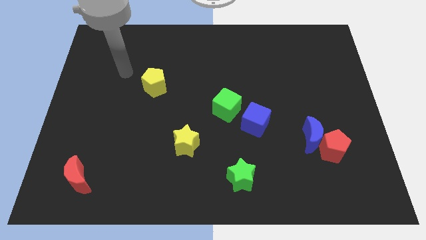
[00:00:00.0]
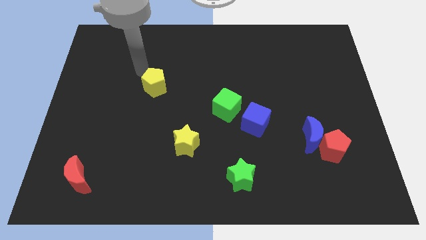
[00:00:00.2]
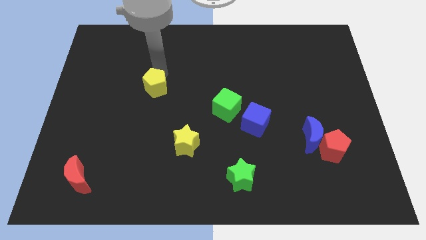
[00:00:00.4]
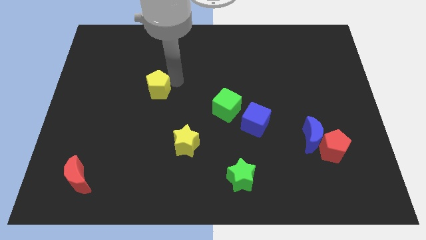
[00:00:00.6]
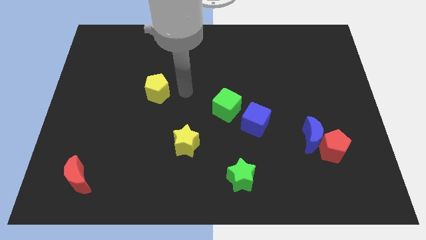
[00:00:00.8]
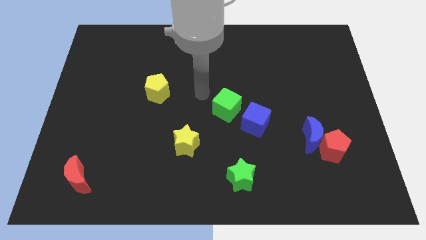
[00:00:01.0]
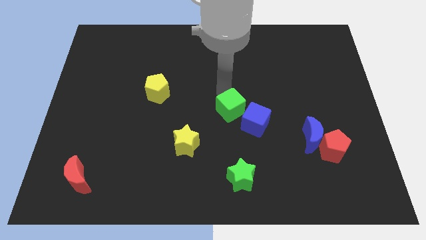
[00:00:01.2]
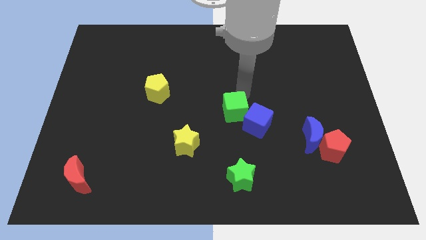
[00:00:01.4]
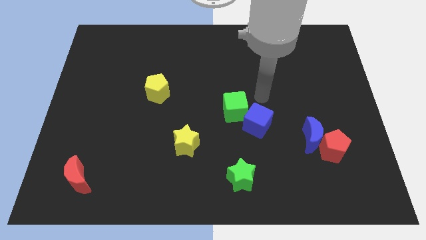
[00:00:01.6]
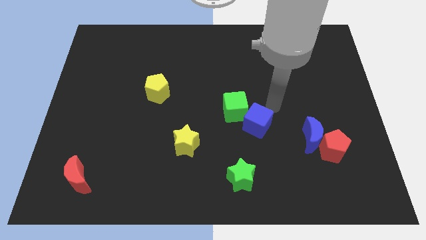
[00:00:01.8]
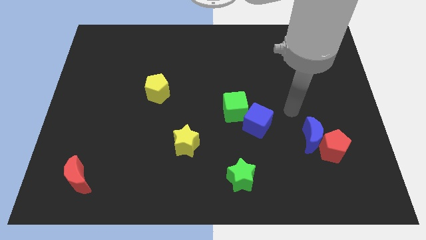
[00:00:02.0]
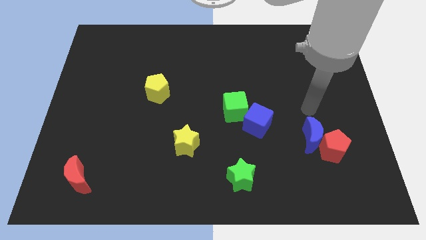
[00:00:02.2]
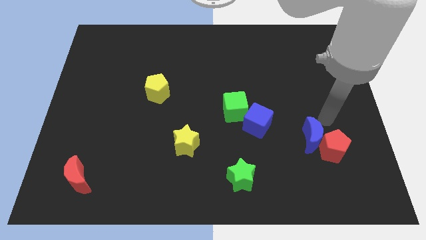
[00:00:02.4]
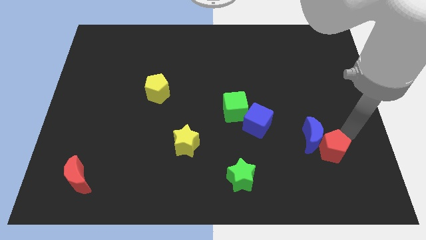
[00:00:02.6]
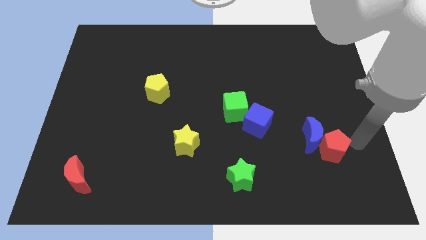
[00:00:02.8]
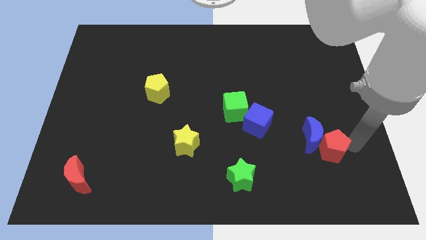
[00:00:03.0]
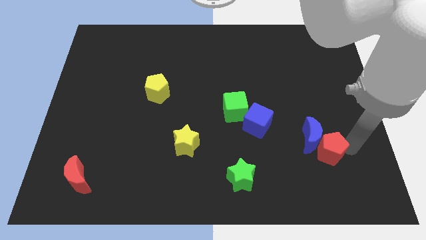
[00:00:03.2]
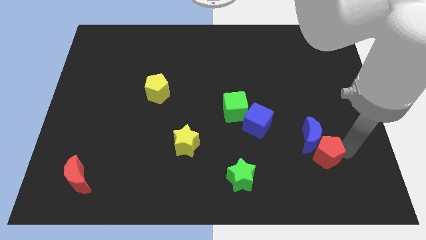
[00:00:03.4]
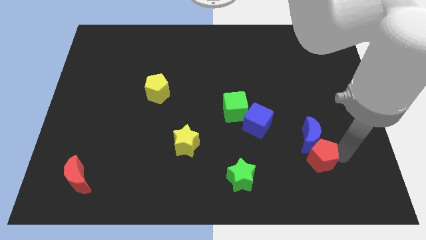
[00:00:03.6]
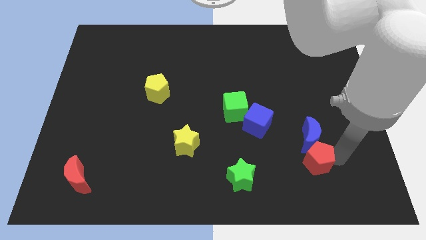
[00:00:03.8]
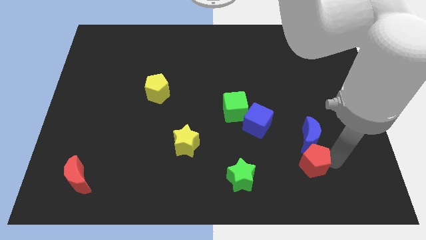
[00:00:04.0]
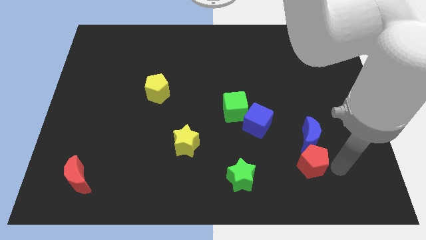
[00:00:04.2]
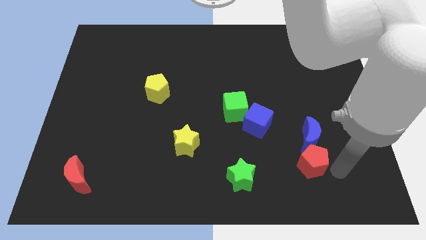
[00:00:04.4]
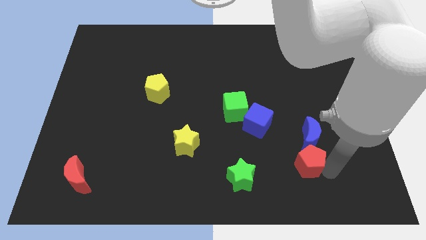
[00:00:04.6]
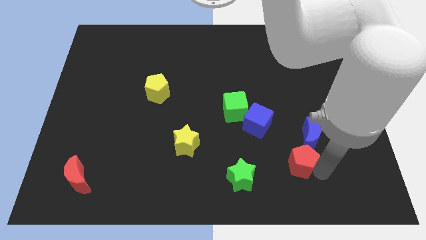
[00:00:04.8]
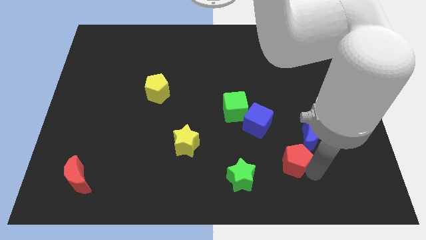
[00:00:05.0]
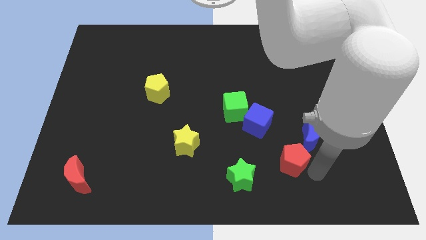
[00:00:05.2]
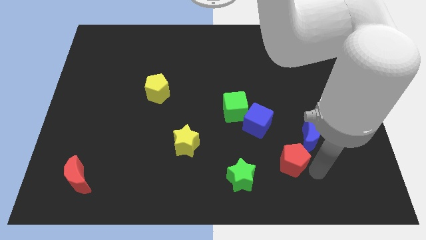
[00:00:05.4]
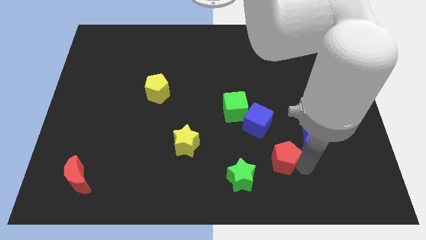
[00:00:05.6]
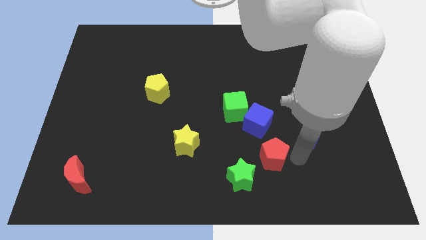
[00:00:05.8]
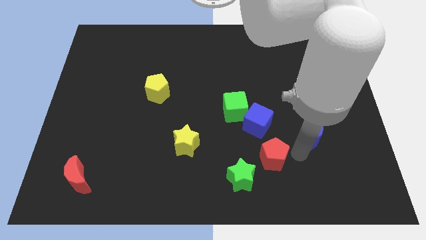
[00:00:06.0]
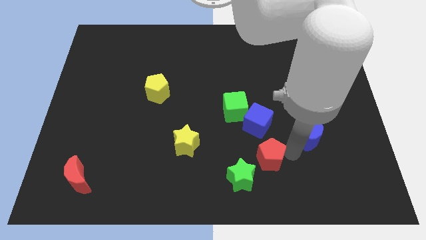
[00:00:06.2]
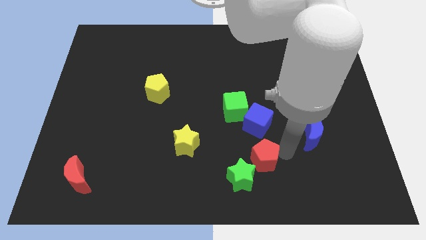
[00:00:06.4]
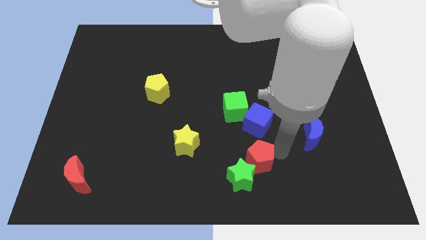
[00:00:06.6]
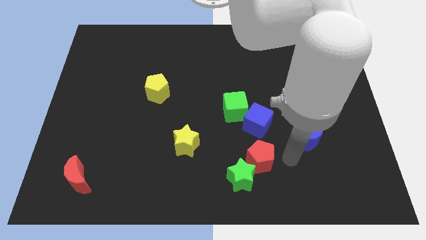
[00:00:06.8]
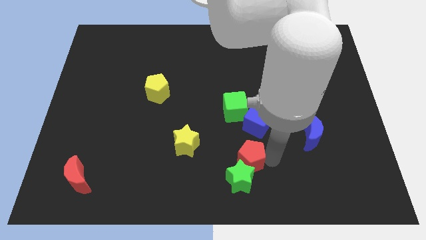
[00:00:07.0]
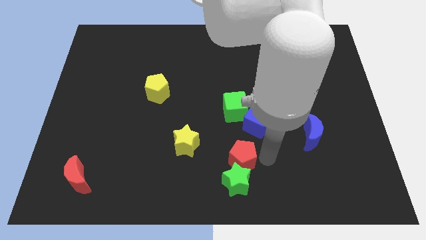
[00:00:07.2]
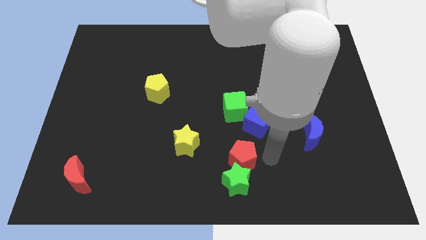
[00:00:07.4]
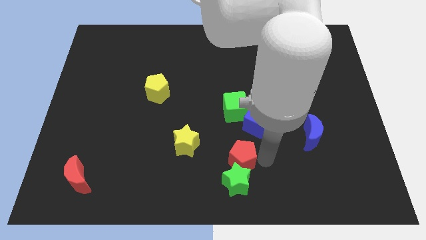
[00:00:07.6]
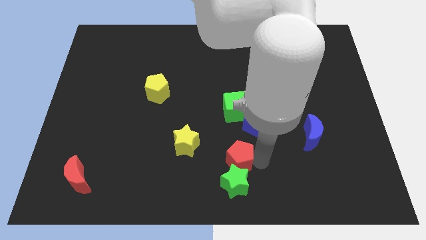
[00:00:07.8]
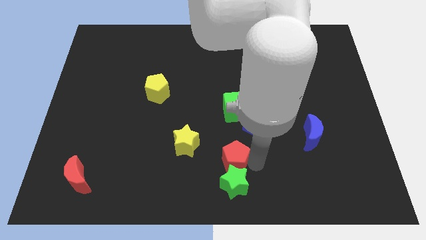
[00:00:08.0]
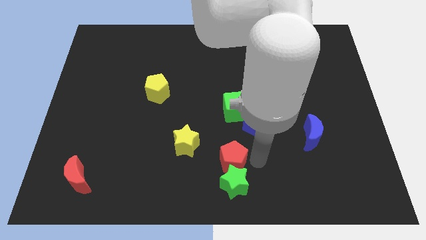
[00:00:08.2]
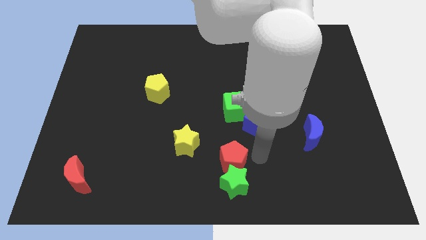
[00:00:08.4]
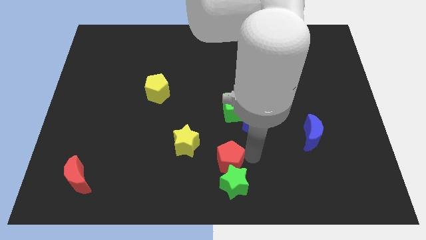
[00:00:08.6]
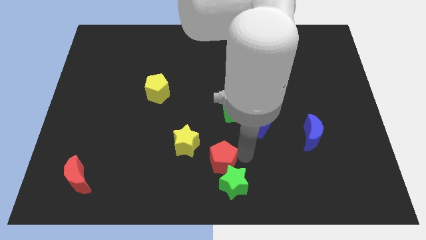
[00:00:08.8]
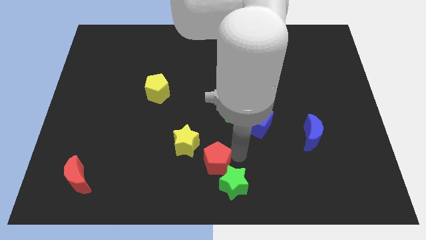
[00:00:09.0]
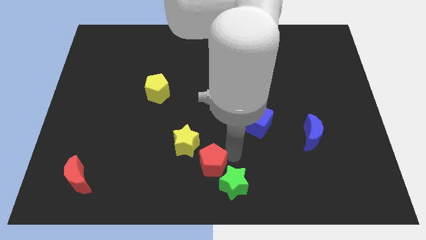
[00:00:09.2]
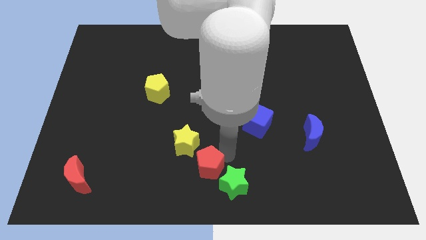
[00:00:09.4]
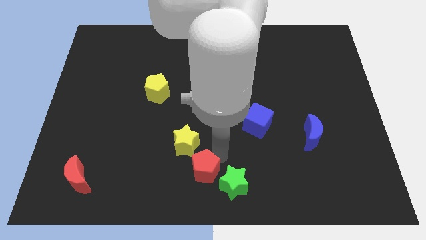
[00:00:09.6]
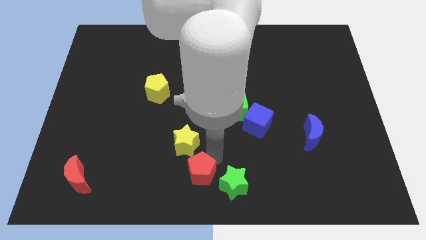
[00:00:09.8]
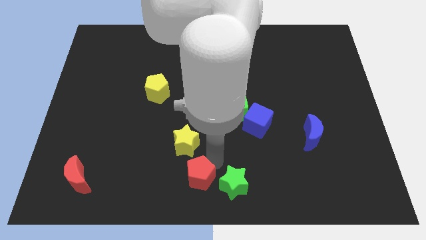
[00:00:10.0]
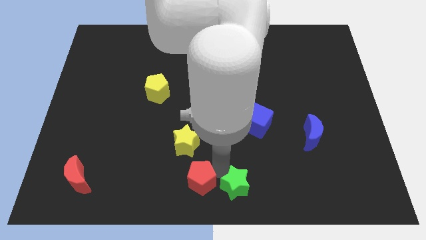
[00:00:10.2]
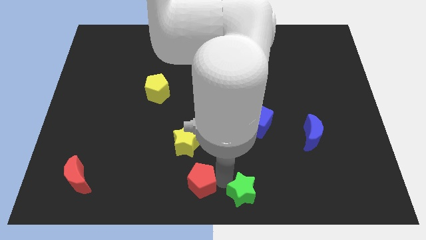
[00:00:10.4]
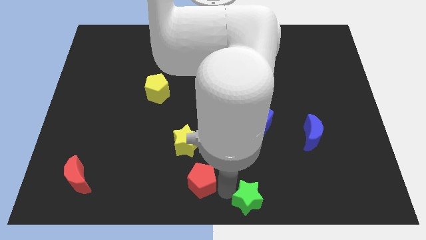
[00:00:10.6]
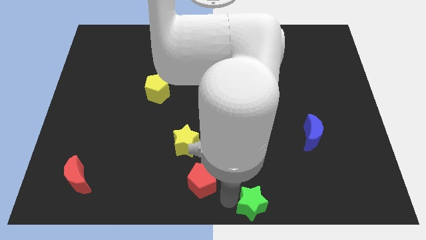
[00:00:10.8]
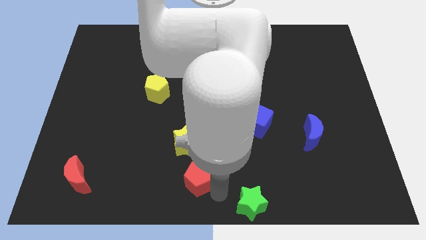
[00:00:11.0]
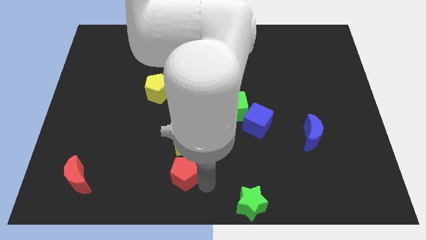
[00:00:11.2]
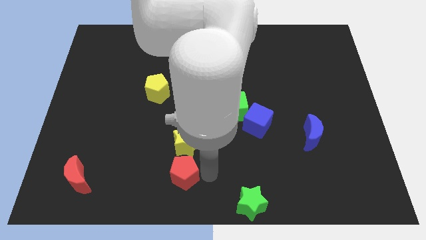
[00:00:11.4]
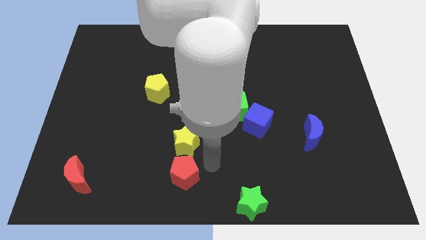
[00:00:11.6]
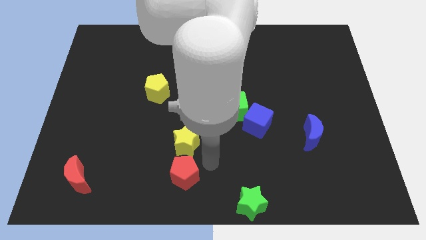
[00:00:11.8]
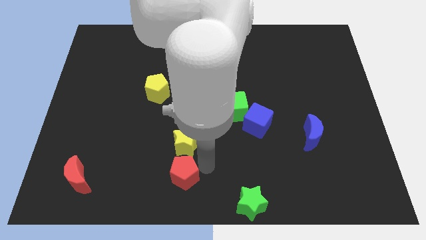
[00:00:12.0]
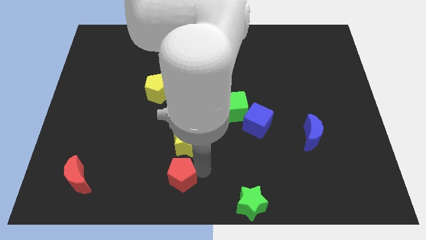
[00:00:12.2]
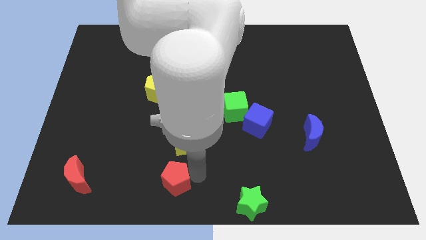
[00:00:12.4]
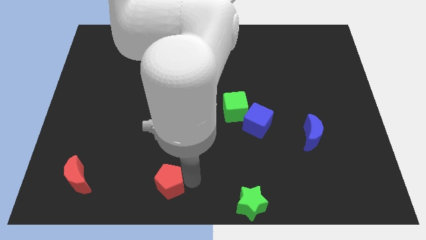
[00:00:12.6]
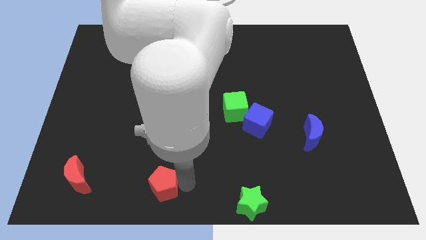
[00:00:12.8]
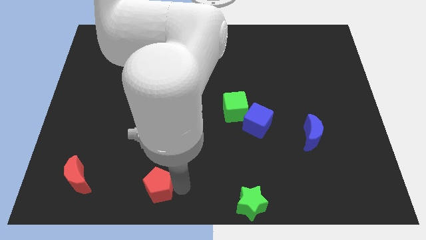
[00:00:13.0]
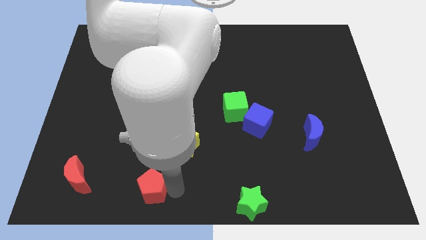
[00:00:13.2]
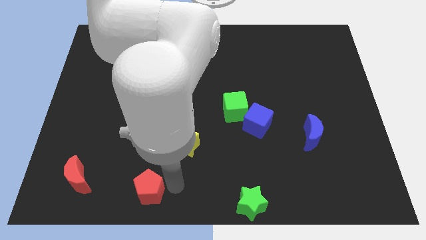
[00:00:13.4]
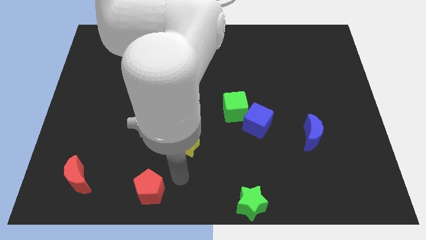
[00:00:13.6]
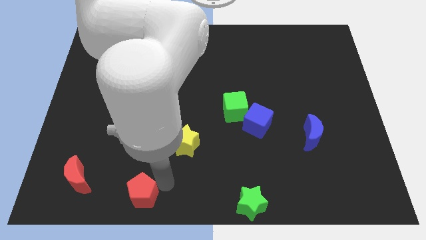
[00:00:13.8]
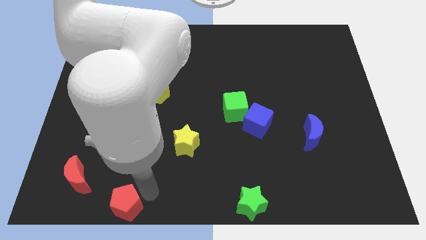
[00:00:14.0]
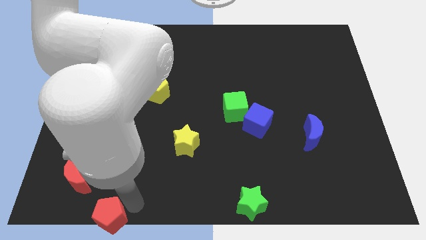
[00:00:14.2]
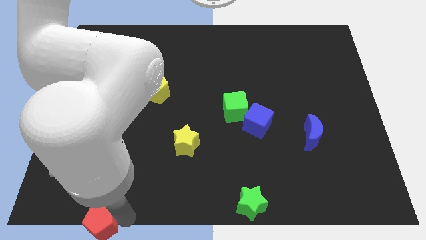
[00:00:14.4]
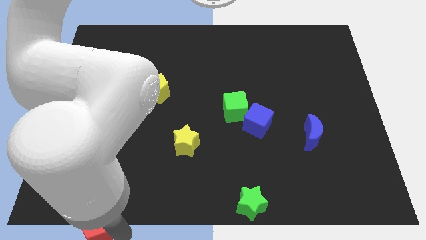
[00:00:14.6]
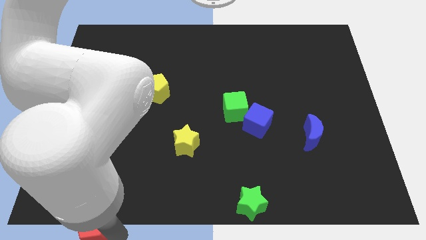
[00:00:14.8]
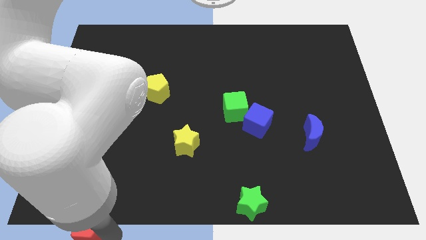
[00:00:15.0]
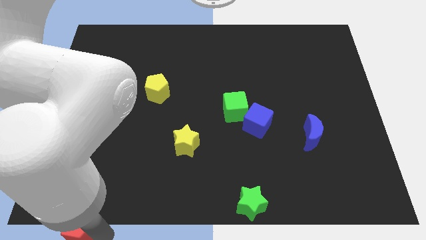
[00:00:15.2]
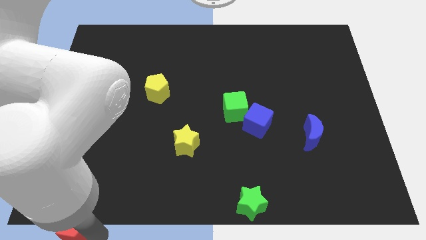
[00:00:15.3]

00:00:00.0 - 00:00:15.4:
put the red pentagon to the bottom left corner

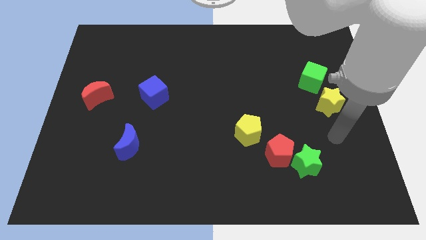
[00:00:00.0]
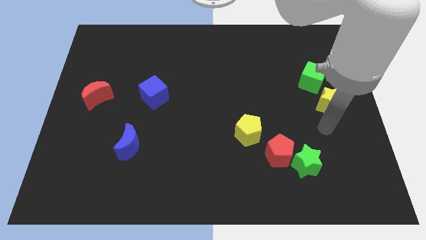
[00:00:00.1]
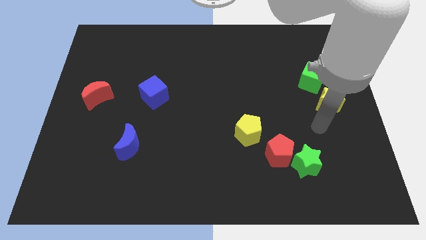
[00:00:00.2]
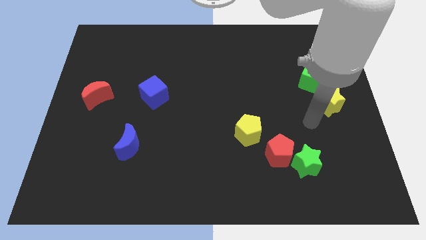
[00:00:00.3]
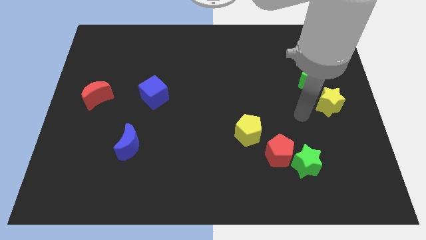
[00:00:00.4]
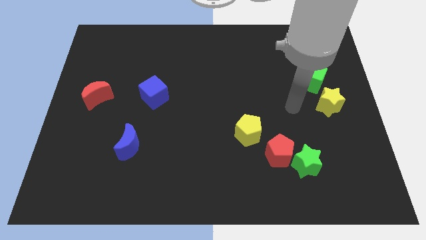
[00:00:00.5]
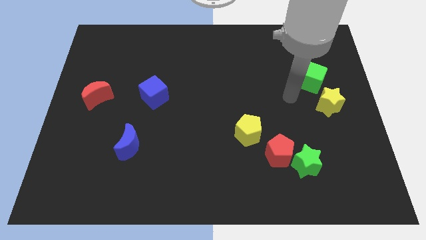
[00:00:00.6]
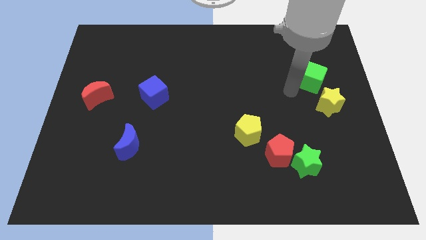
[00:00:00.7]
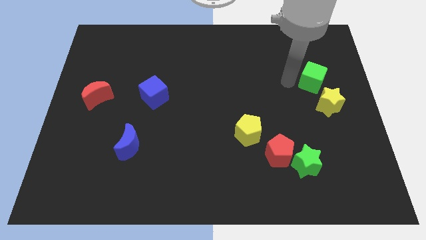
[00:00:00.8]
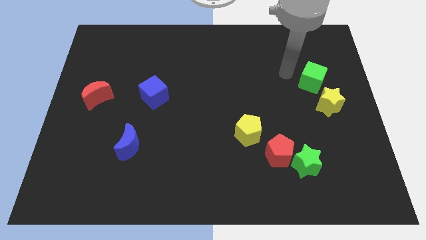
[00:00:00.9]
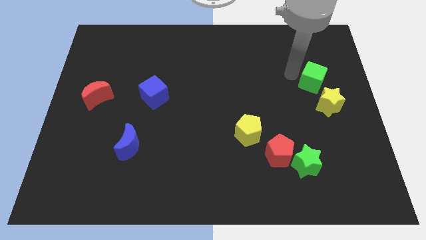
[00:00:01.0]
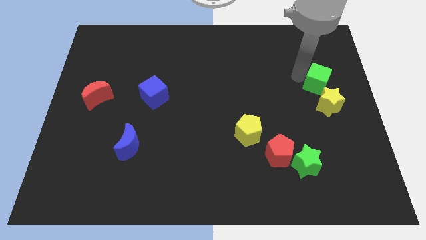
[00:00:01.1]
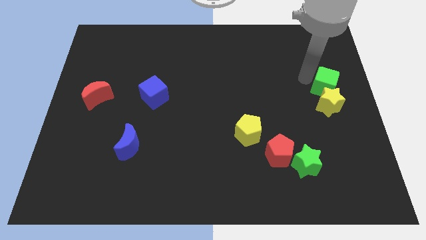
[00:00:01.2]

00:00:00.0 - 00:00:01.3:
slide the green cube to the right side of the board
